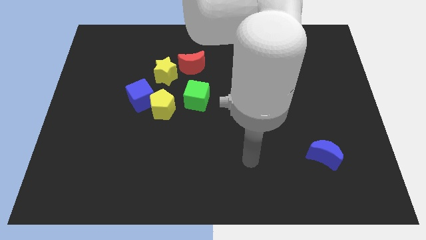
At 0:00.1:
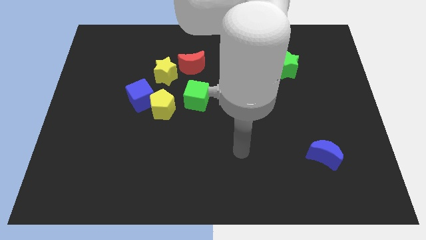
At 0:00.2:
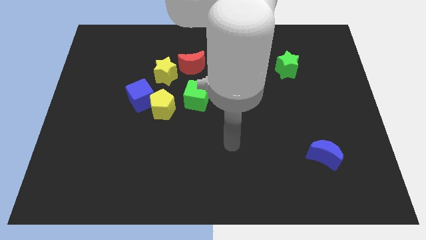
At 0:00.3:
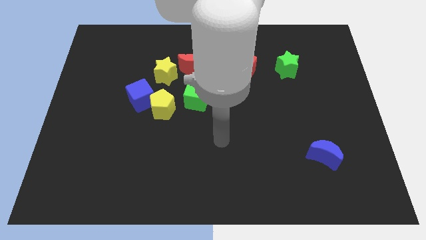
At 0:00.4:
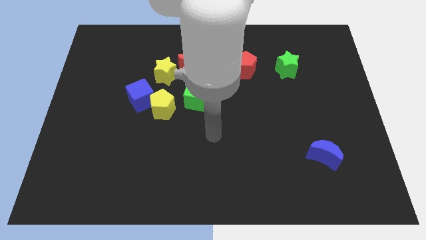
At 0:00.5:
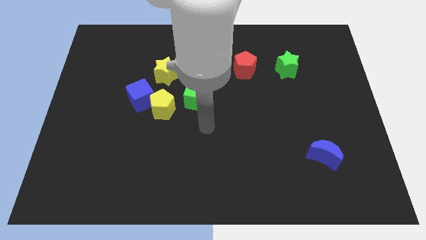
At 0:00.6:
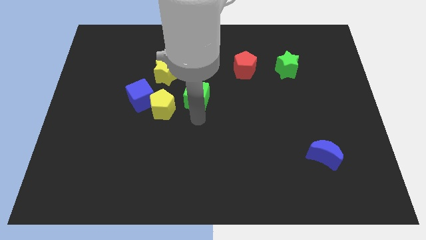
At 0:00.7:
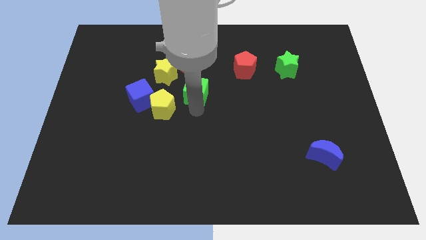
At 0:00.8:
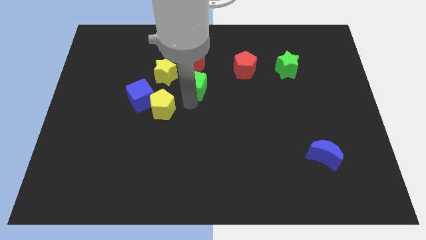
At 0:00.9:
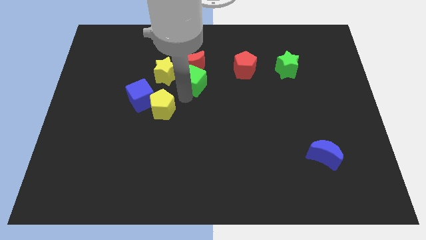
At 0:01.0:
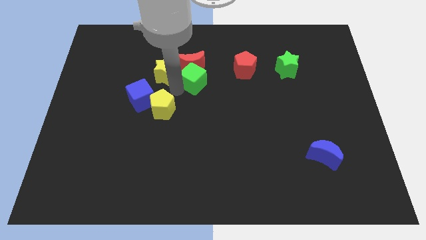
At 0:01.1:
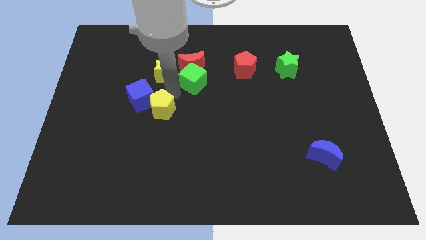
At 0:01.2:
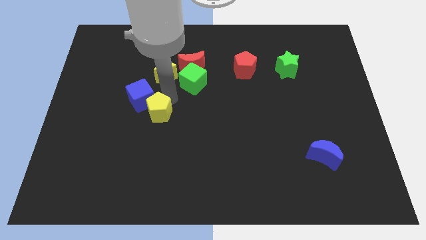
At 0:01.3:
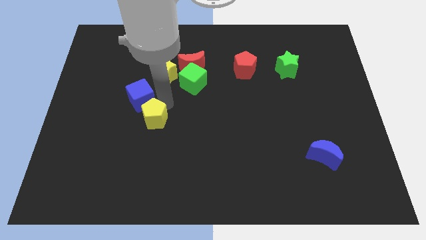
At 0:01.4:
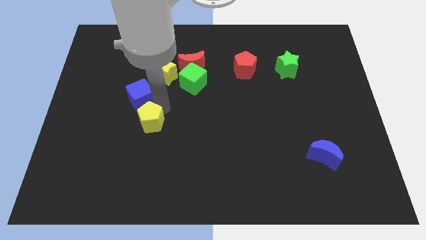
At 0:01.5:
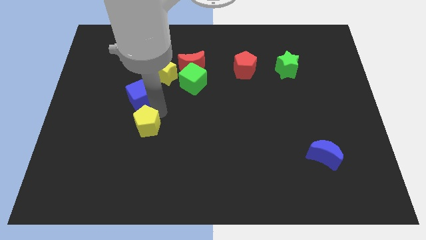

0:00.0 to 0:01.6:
pull the yellow pentagon apart from the blue cube and green cube

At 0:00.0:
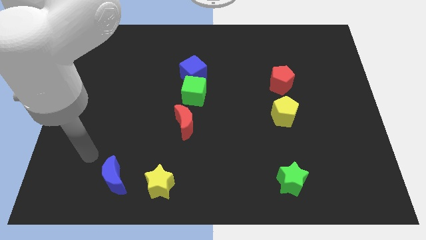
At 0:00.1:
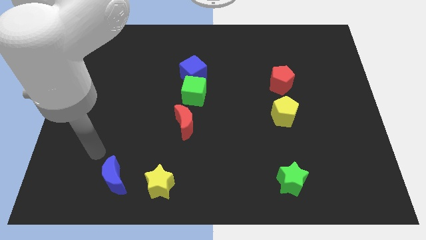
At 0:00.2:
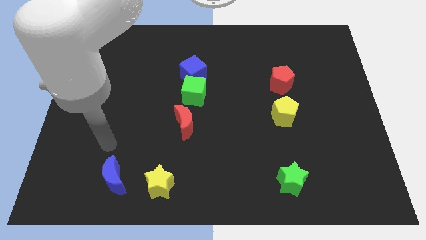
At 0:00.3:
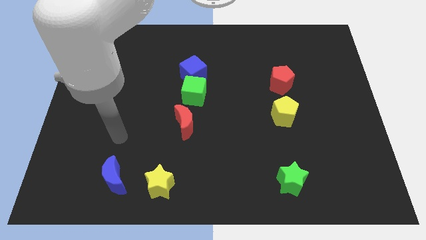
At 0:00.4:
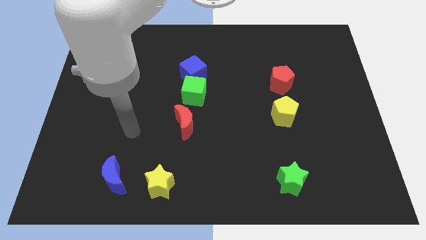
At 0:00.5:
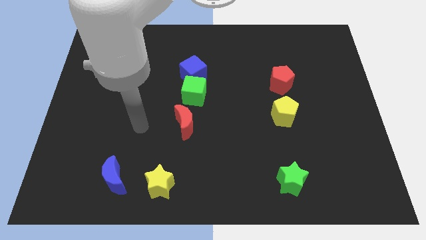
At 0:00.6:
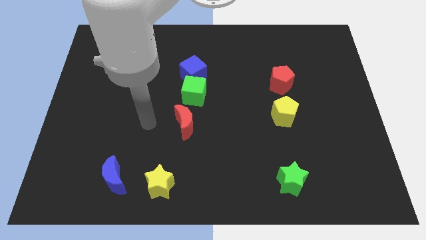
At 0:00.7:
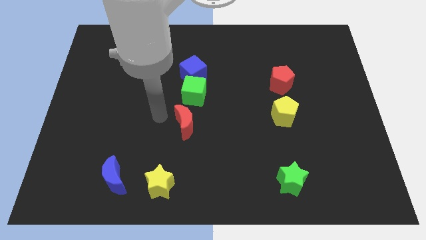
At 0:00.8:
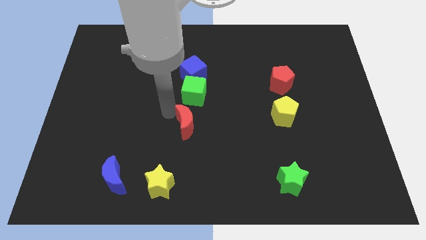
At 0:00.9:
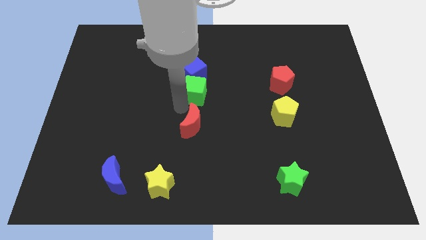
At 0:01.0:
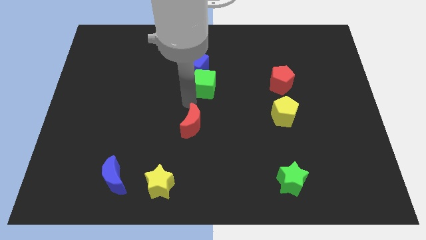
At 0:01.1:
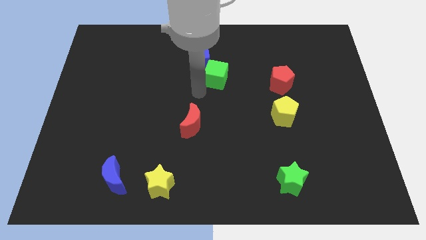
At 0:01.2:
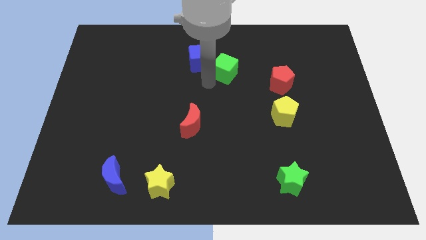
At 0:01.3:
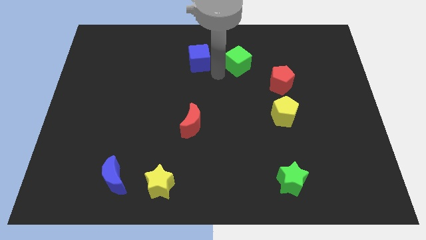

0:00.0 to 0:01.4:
pull the blue cube apart from the green cube

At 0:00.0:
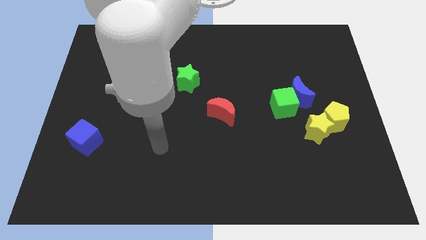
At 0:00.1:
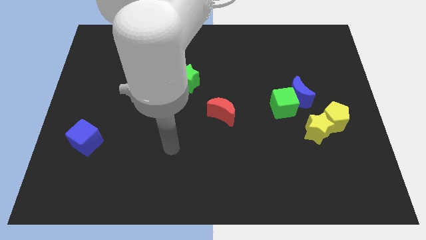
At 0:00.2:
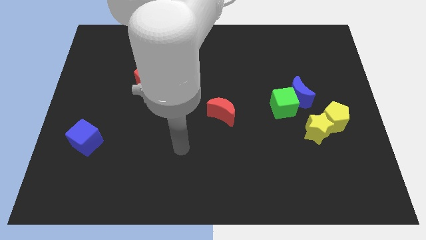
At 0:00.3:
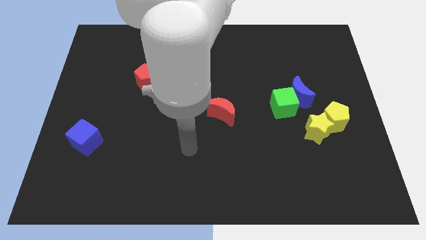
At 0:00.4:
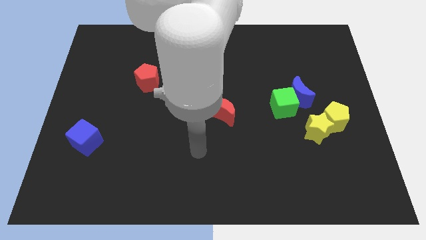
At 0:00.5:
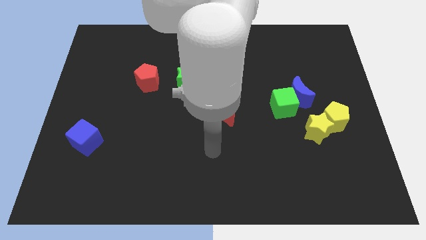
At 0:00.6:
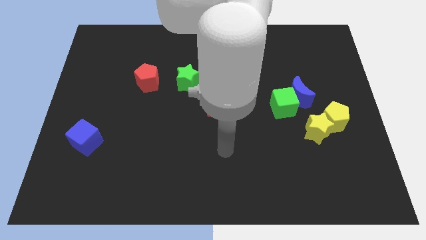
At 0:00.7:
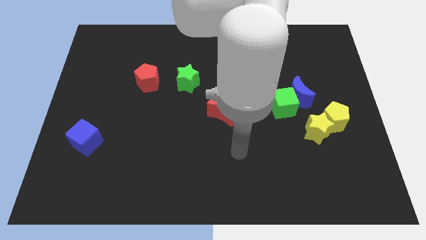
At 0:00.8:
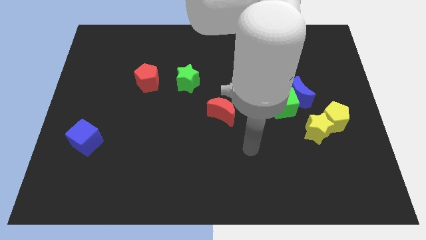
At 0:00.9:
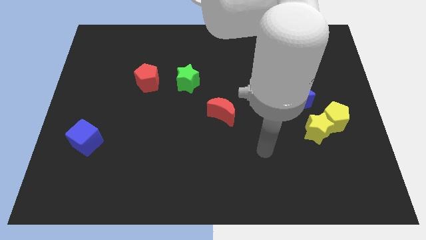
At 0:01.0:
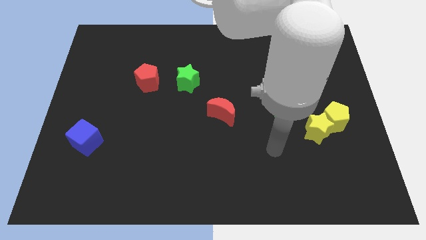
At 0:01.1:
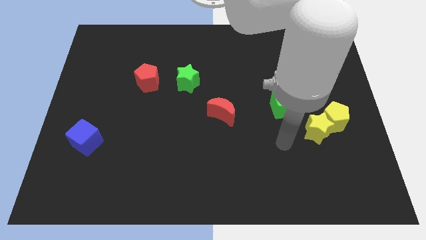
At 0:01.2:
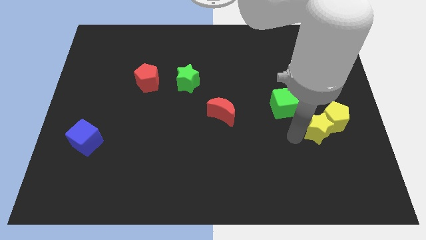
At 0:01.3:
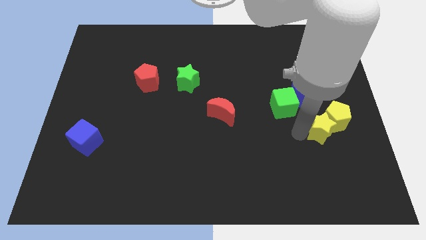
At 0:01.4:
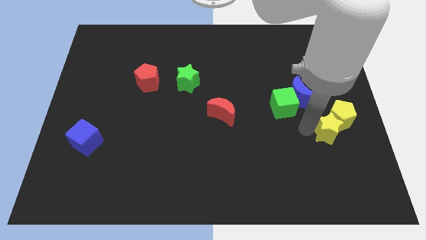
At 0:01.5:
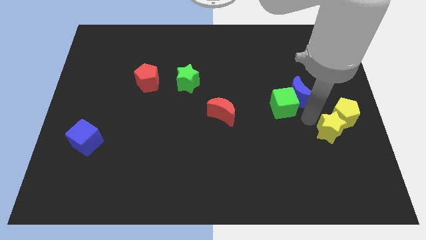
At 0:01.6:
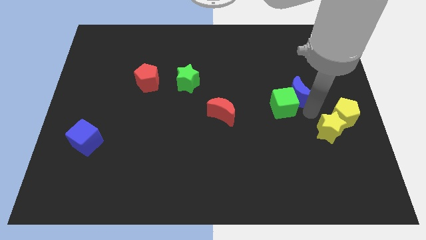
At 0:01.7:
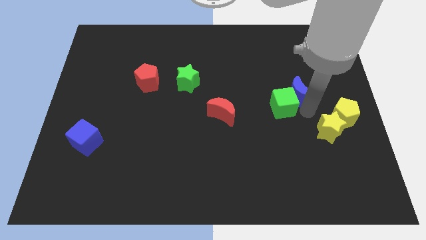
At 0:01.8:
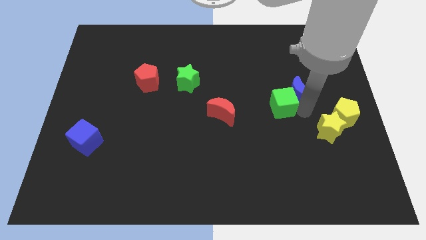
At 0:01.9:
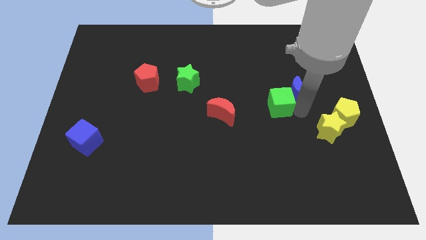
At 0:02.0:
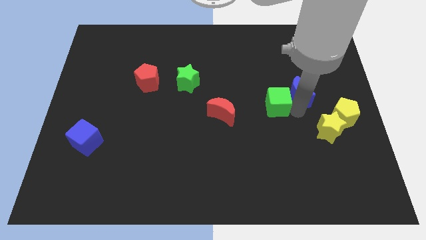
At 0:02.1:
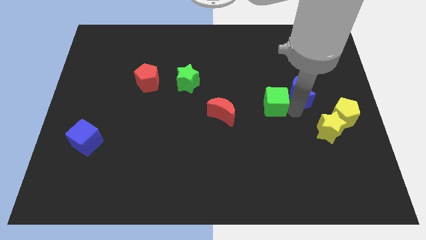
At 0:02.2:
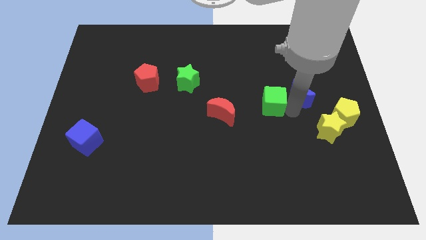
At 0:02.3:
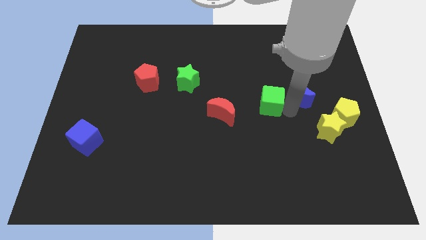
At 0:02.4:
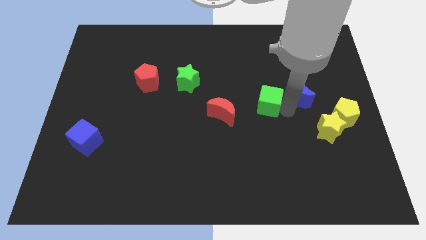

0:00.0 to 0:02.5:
move the green cube away from the blue moon and yellow star

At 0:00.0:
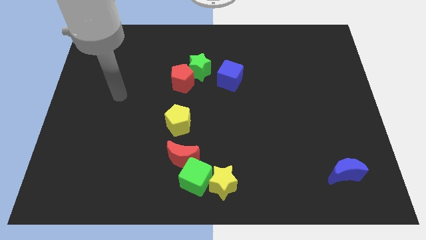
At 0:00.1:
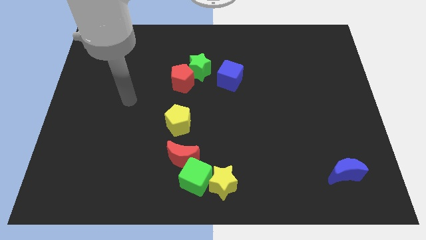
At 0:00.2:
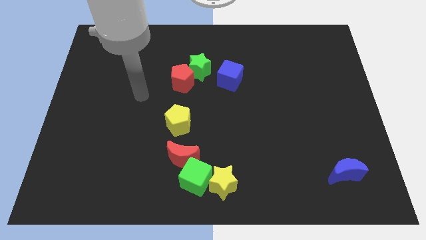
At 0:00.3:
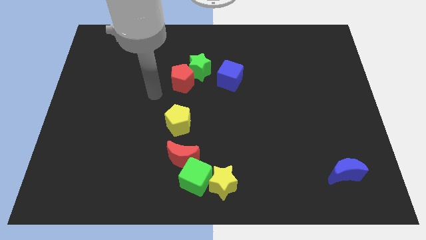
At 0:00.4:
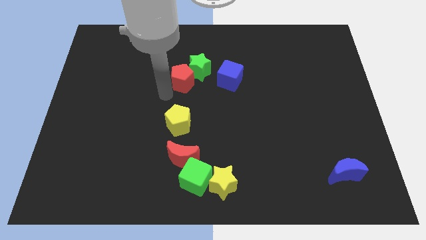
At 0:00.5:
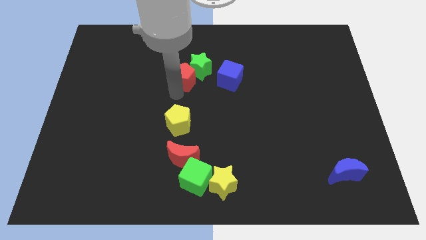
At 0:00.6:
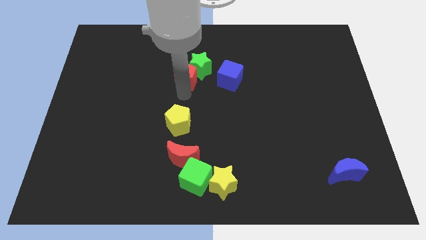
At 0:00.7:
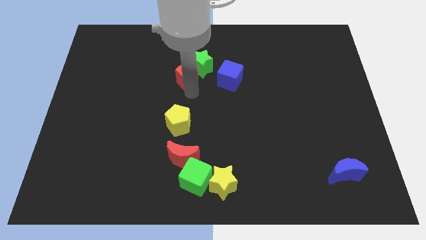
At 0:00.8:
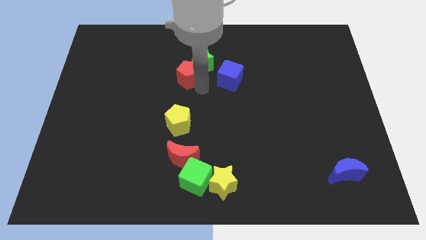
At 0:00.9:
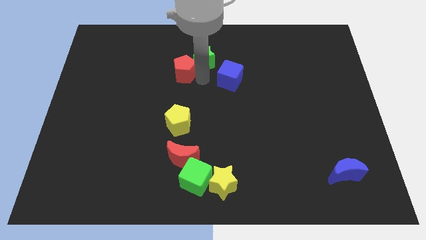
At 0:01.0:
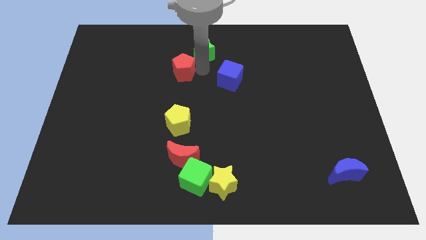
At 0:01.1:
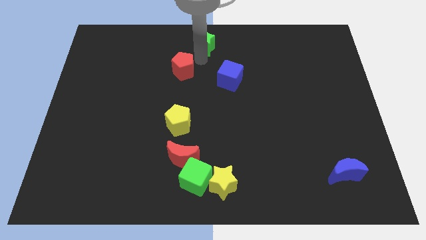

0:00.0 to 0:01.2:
pull the red pentagon apart from the green star

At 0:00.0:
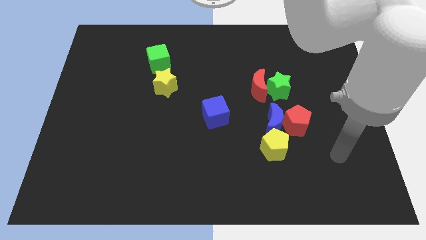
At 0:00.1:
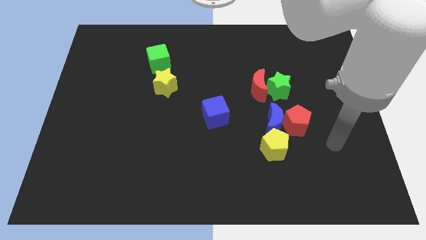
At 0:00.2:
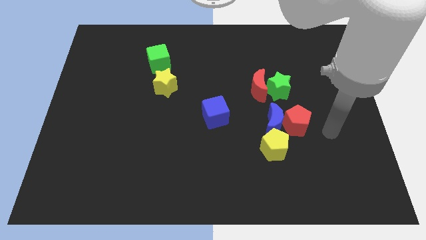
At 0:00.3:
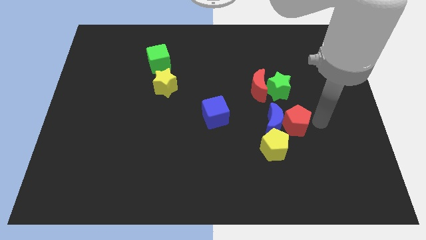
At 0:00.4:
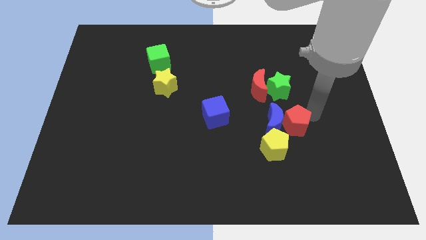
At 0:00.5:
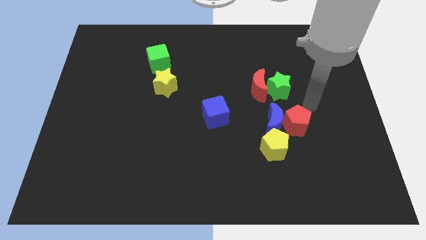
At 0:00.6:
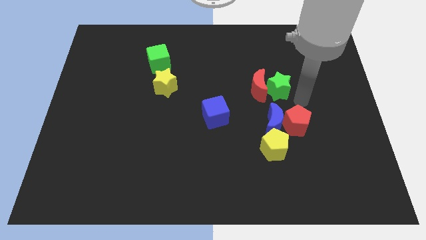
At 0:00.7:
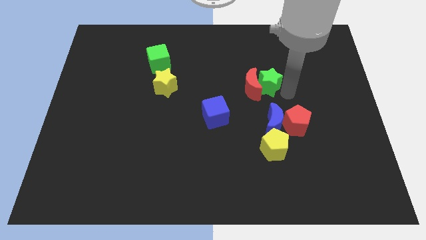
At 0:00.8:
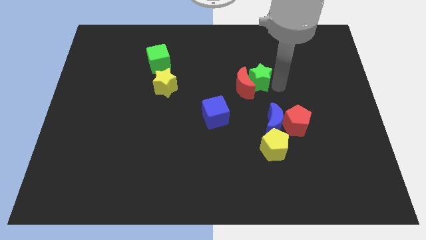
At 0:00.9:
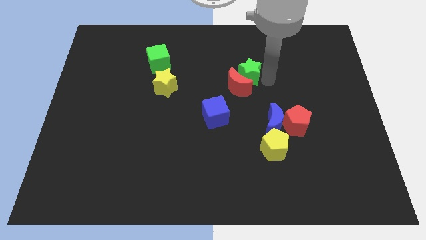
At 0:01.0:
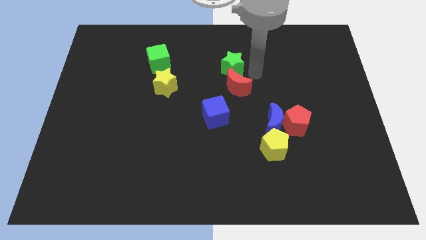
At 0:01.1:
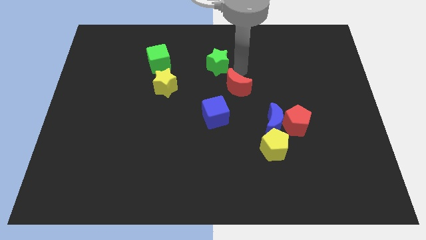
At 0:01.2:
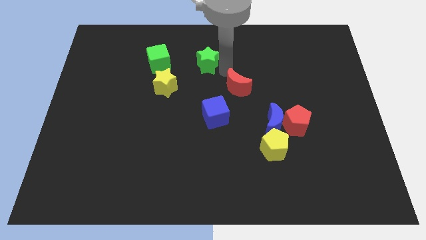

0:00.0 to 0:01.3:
move the red moon away from the green star

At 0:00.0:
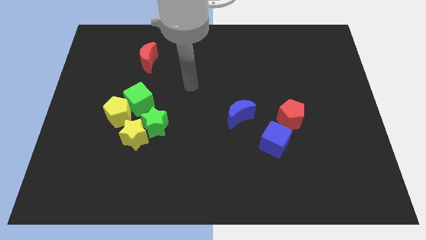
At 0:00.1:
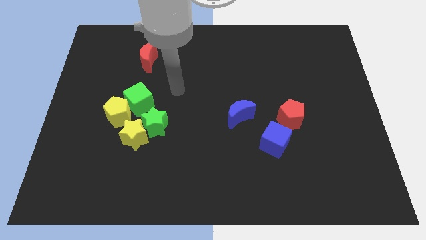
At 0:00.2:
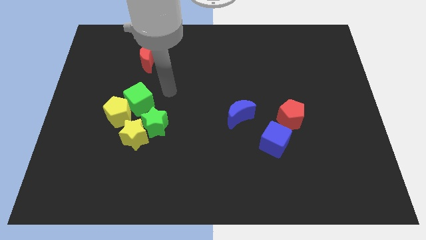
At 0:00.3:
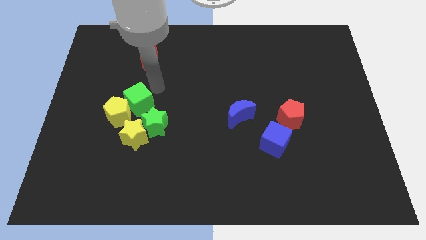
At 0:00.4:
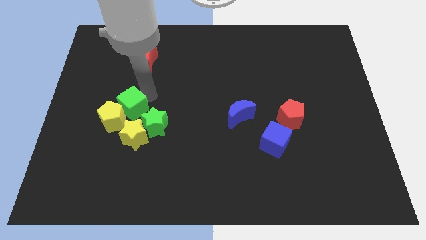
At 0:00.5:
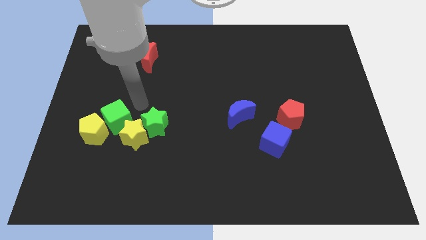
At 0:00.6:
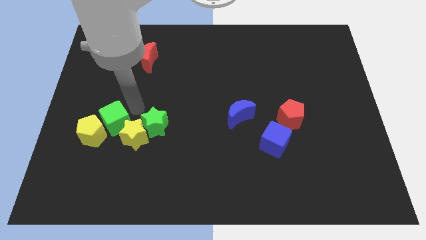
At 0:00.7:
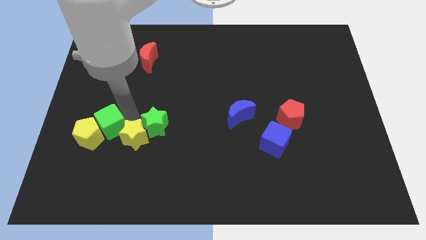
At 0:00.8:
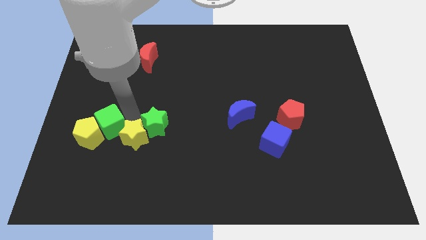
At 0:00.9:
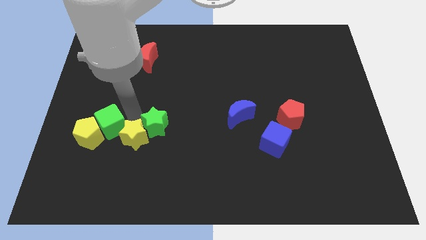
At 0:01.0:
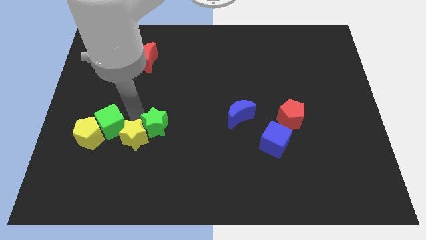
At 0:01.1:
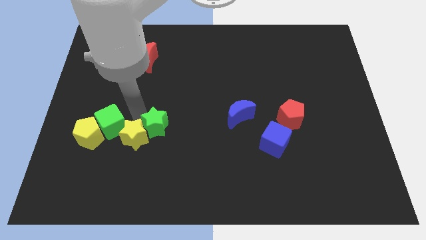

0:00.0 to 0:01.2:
separate the green star from the yellow star, green cube, and yellow pentagon

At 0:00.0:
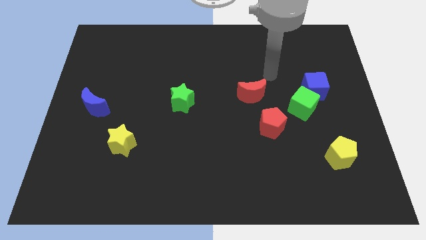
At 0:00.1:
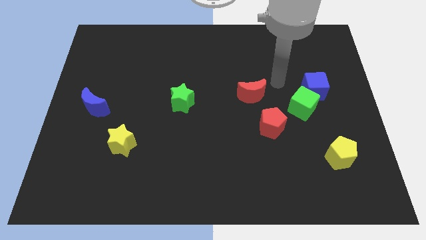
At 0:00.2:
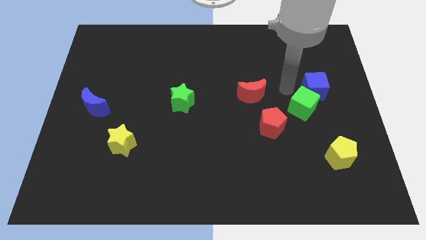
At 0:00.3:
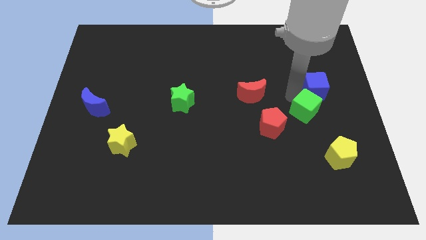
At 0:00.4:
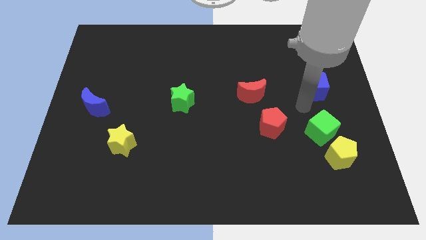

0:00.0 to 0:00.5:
move the blue cube away from the green cube
